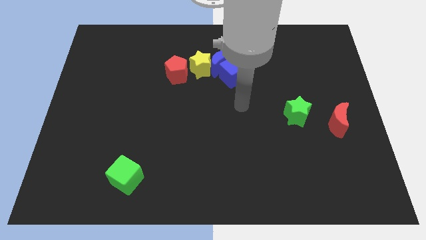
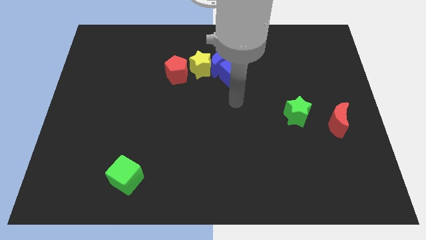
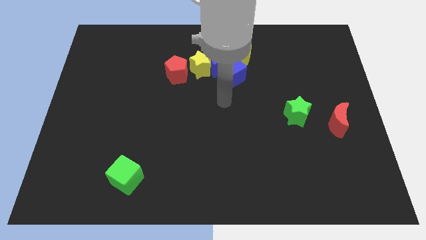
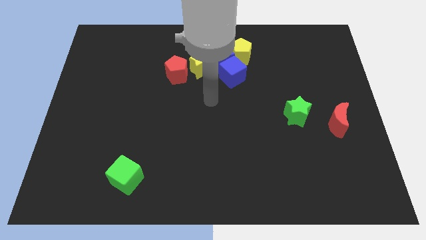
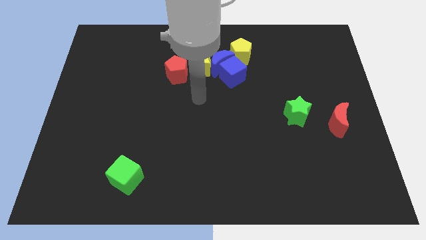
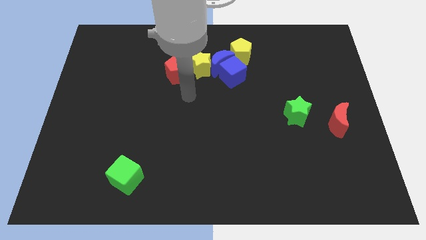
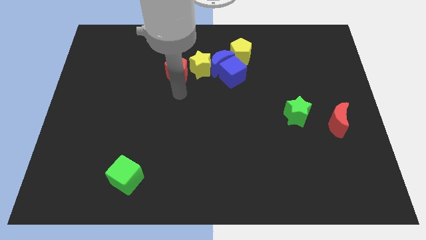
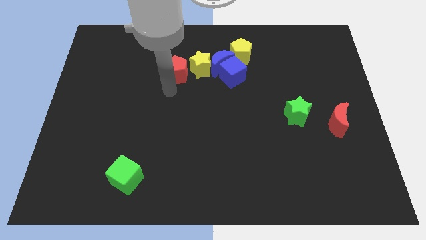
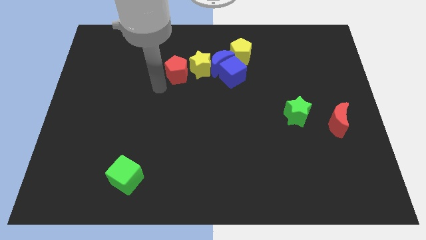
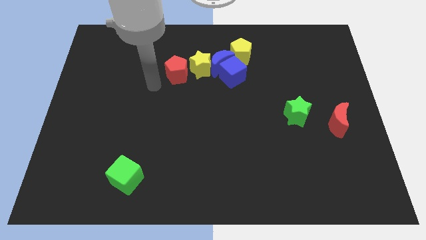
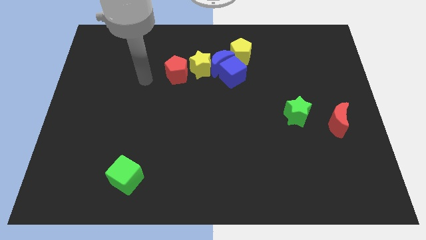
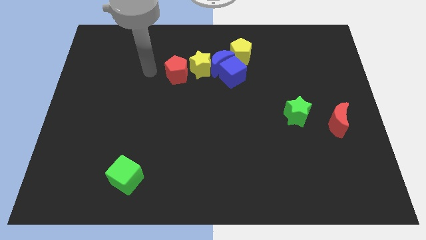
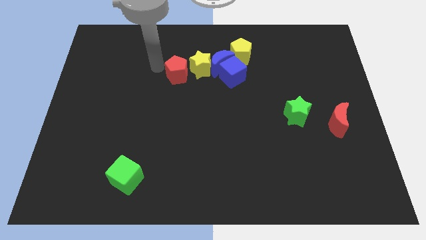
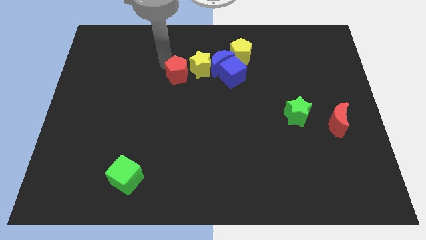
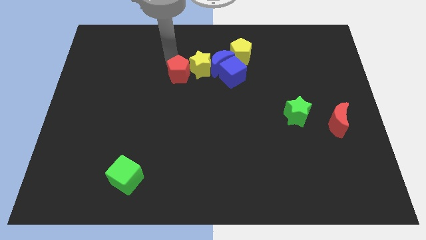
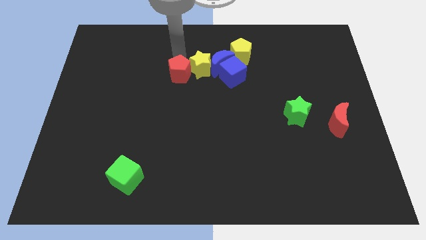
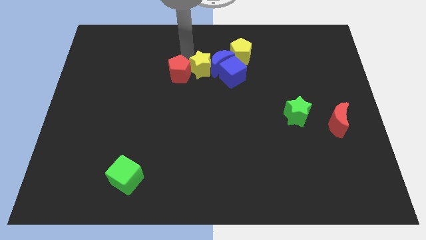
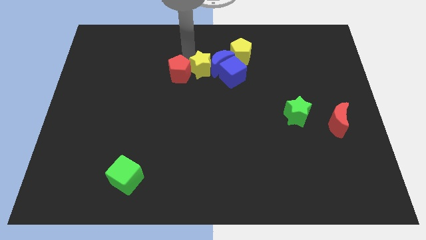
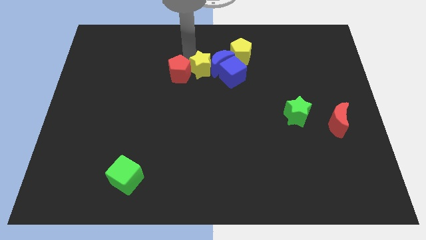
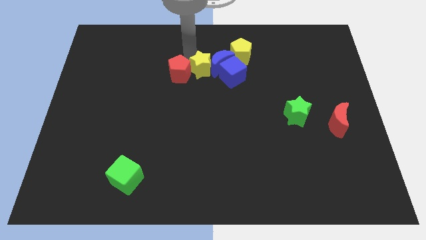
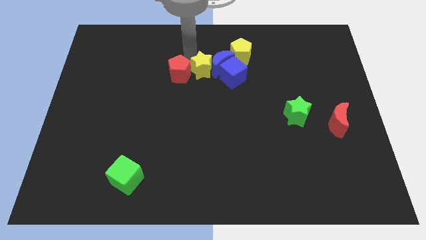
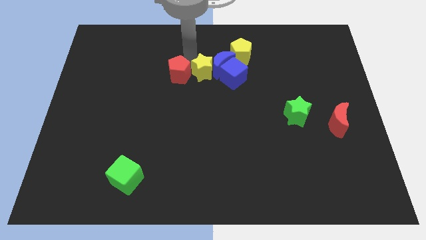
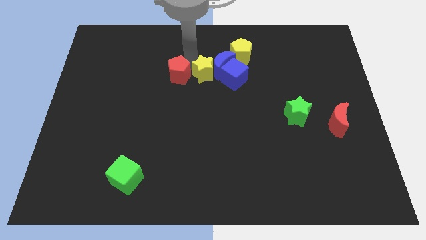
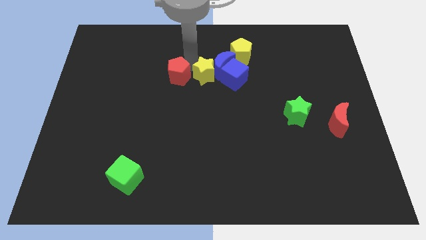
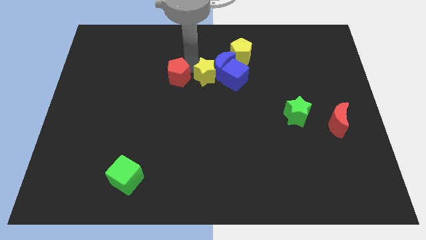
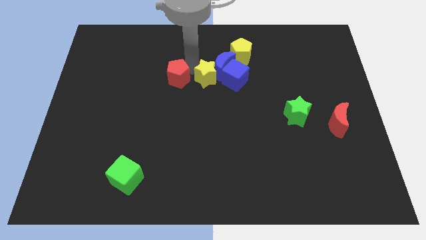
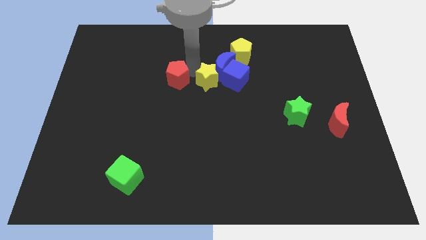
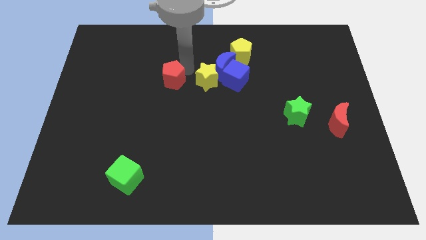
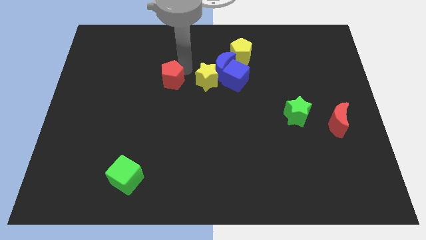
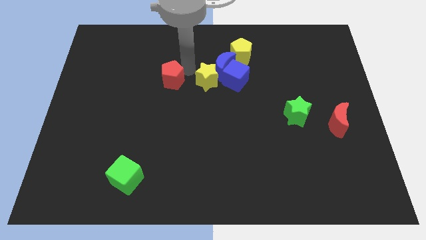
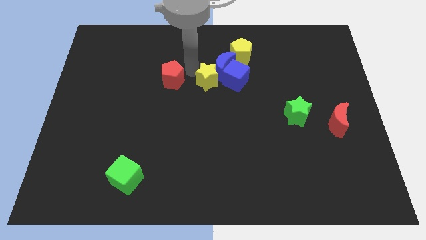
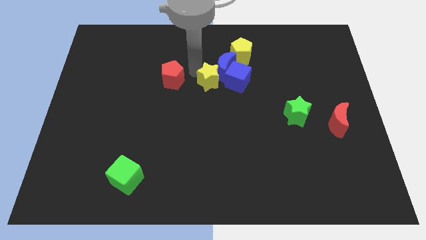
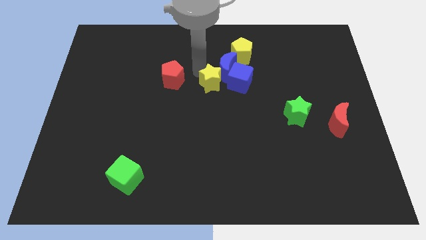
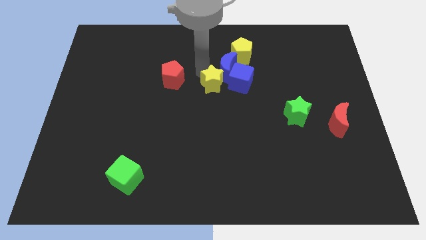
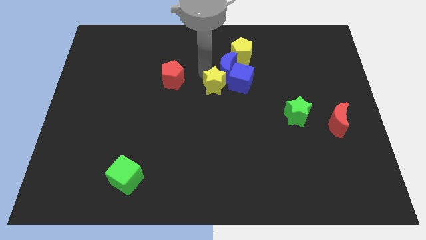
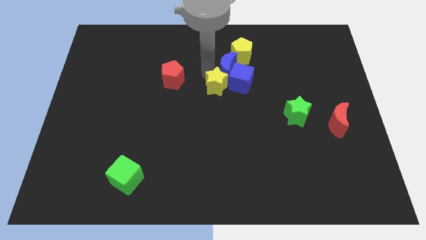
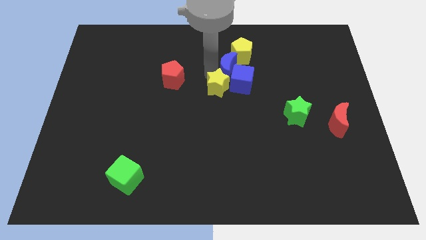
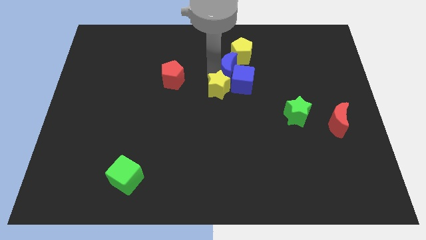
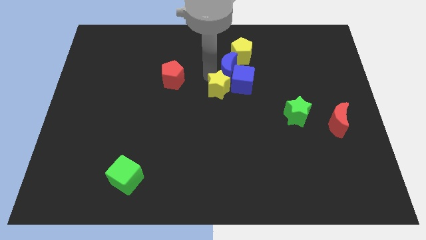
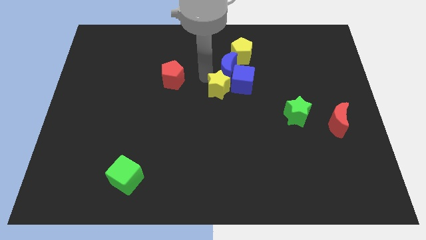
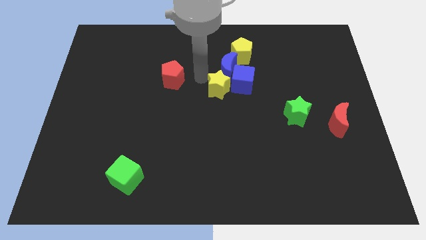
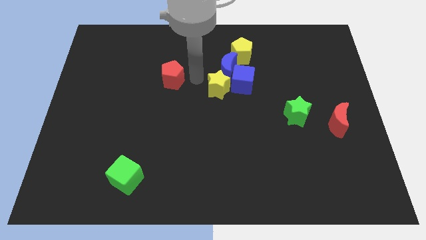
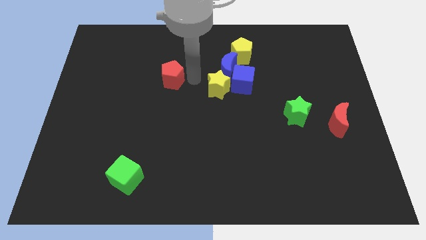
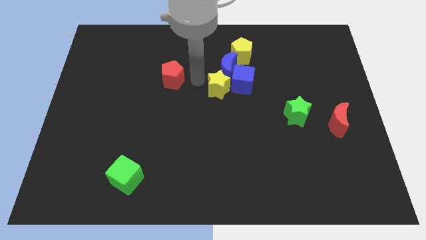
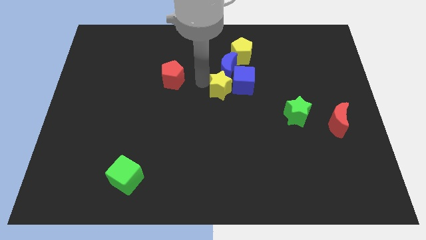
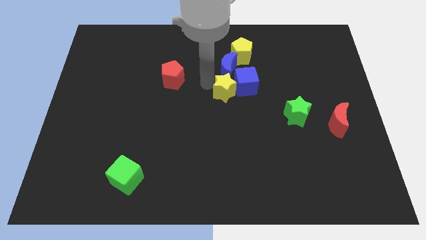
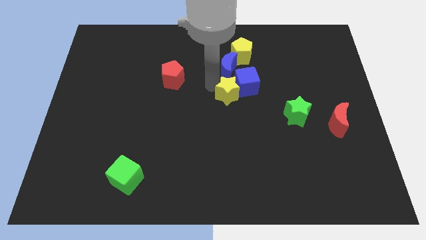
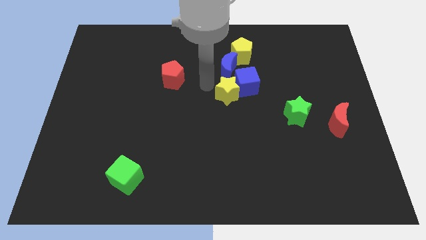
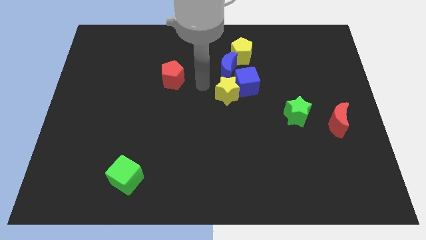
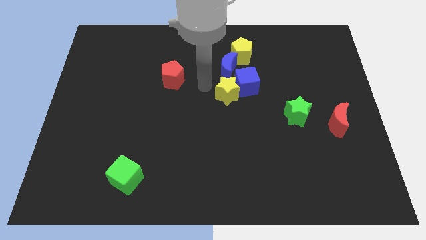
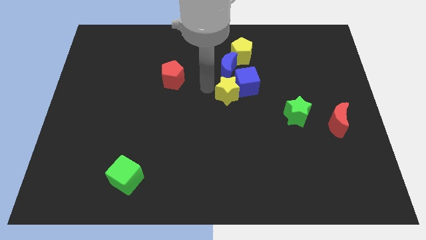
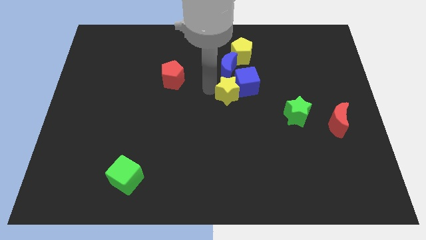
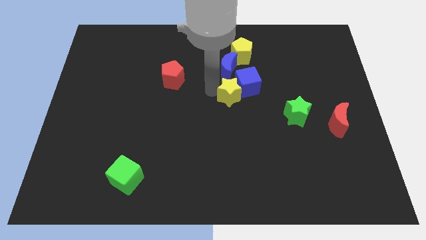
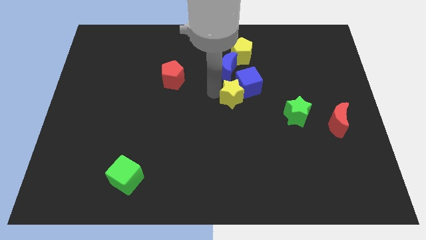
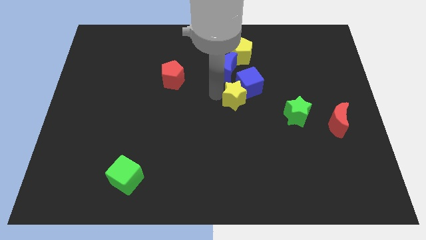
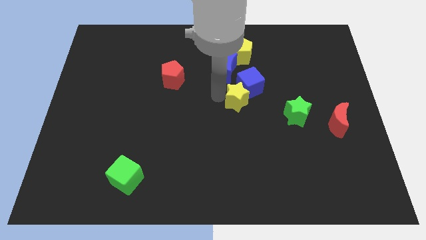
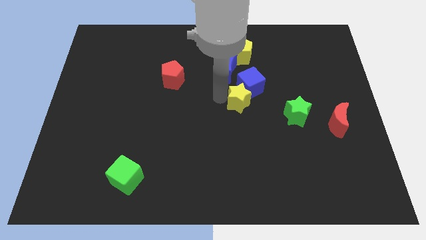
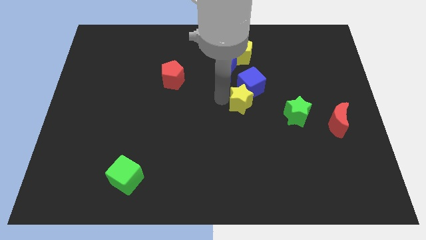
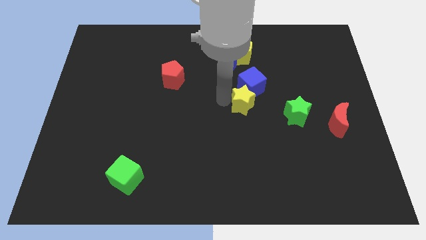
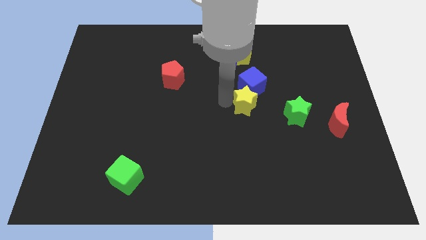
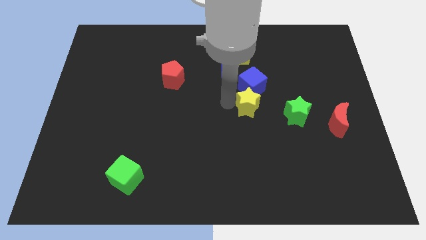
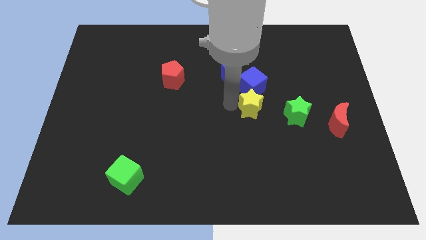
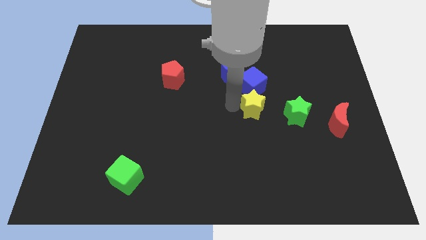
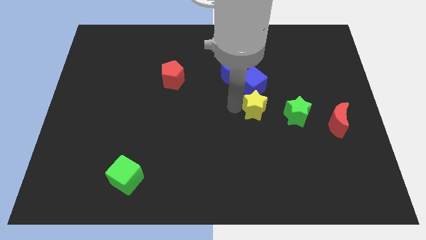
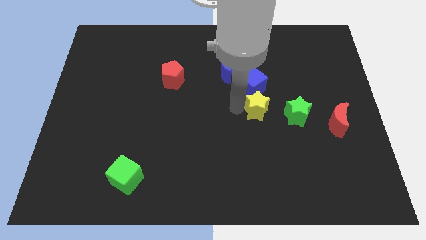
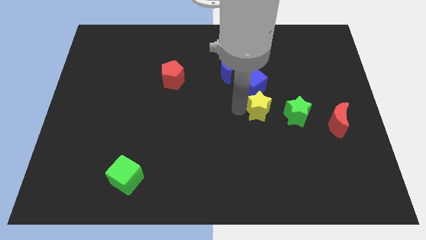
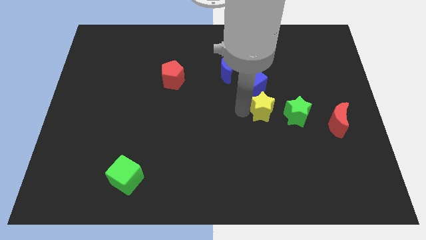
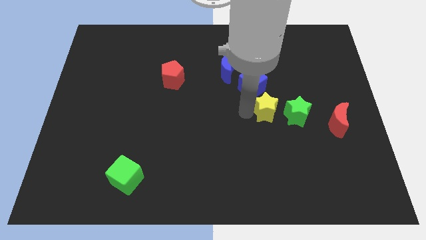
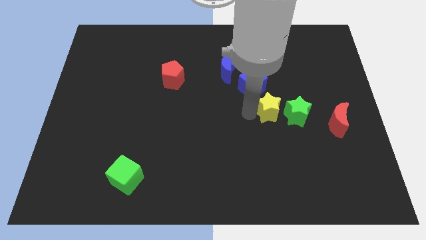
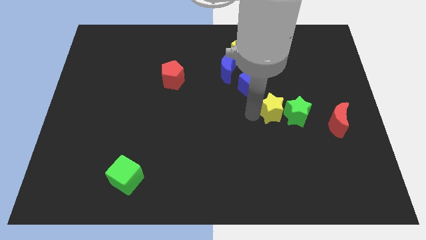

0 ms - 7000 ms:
slide the yellow star towards the green star

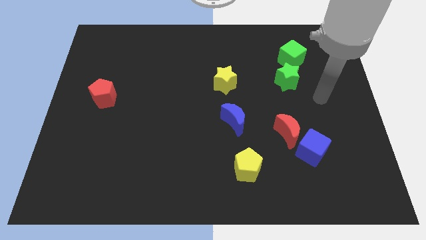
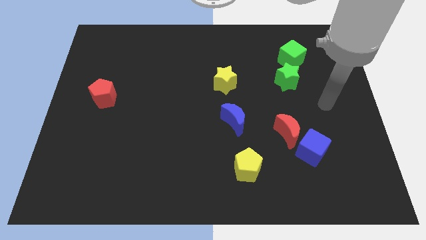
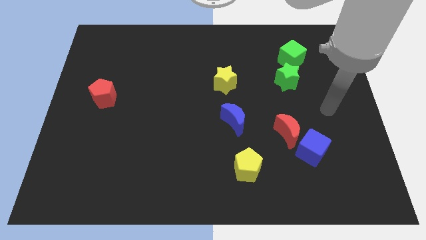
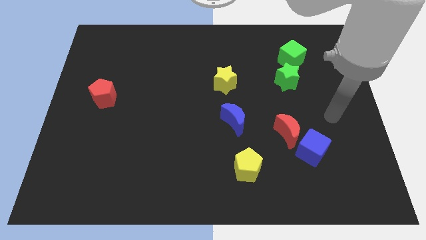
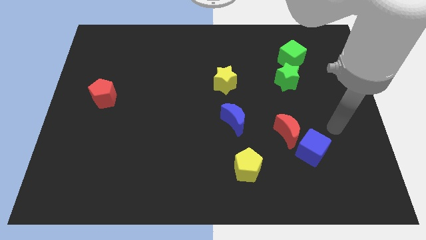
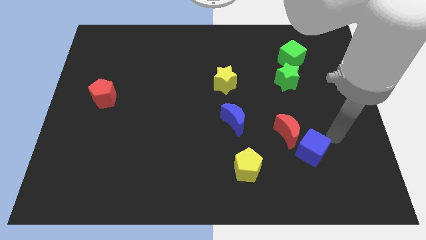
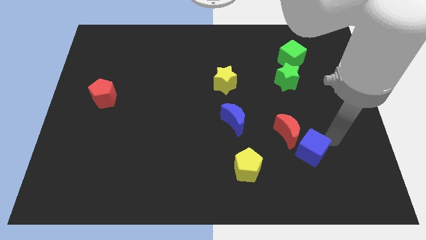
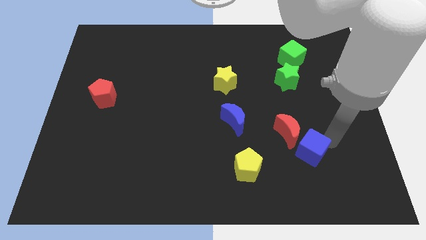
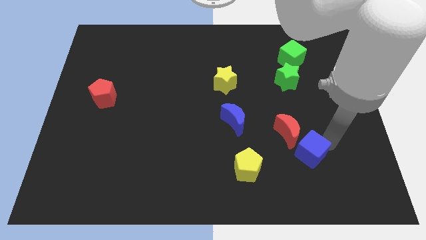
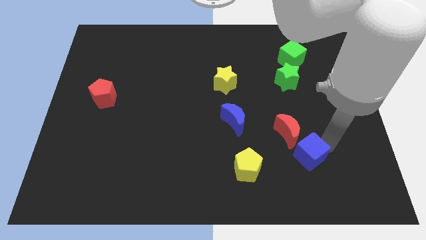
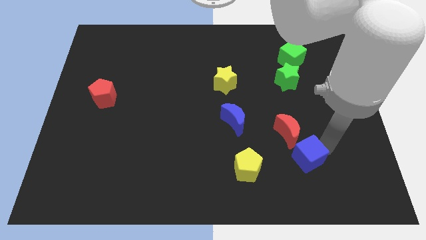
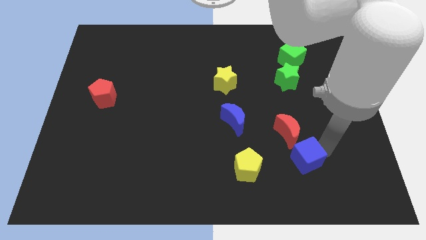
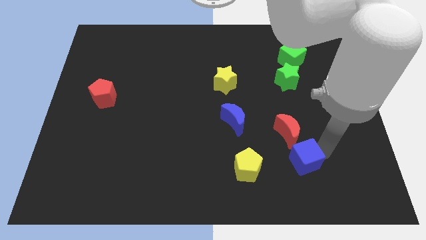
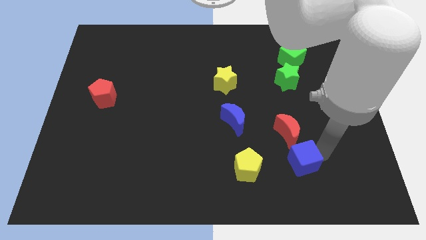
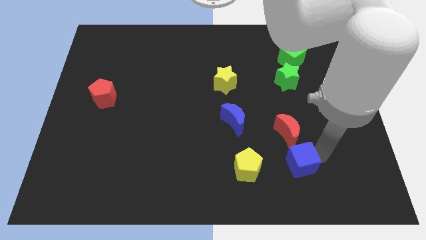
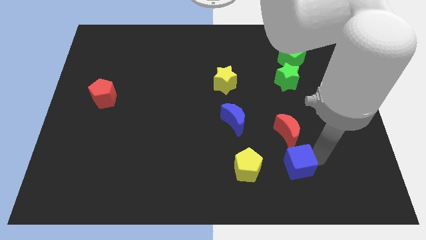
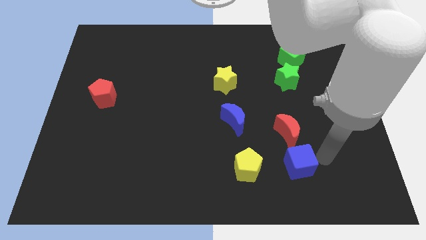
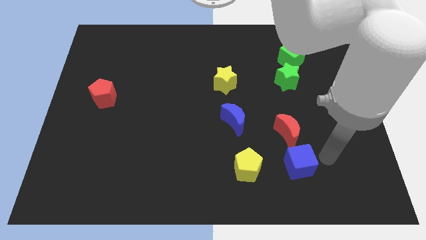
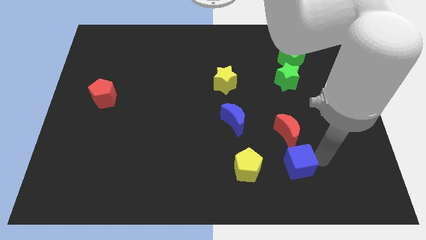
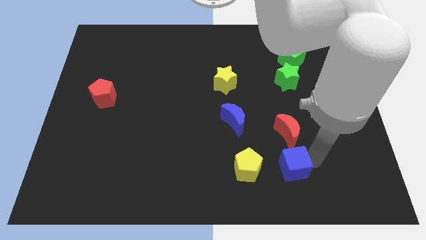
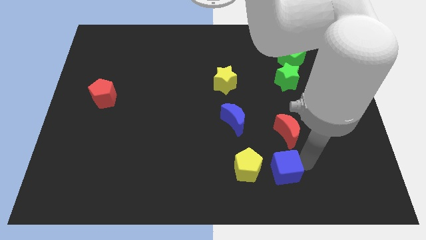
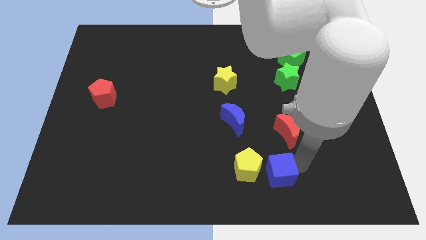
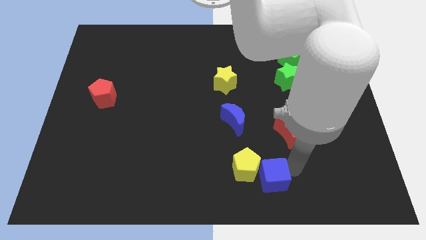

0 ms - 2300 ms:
slide the blue cube to the yellow pentagon
